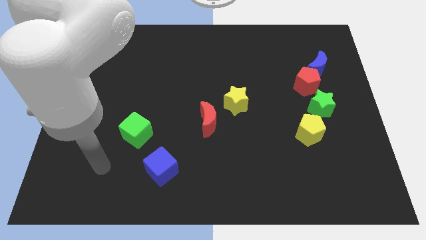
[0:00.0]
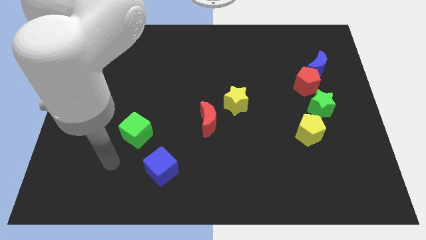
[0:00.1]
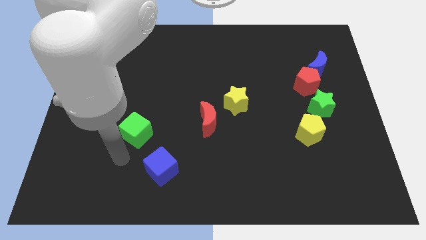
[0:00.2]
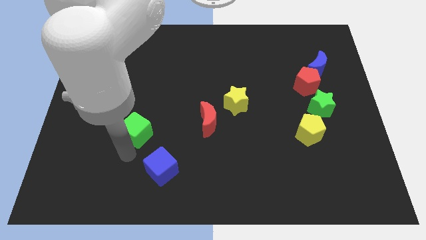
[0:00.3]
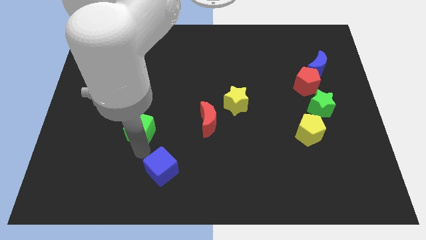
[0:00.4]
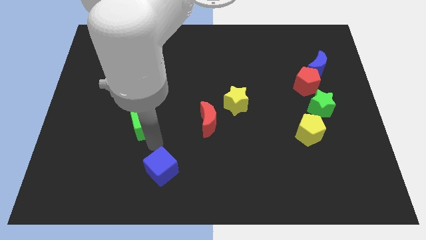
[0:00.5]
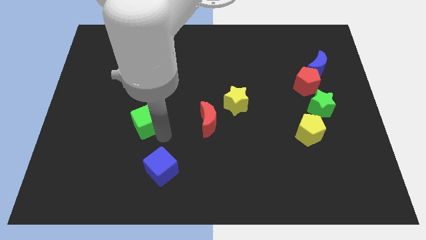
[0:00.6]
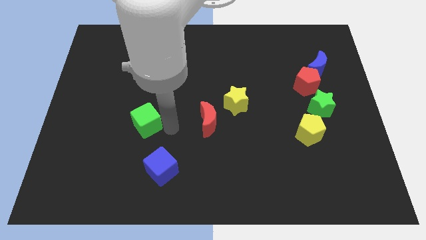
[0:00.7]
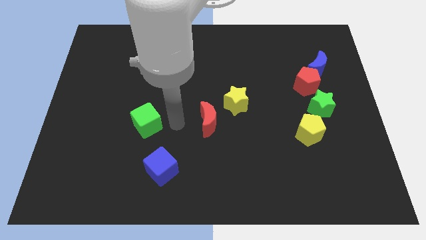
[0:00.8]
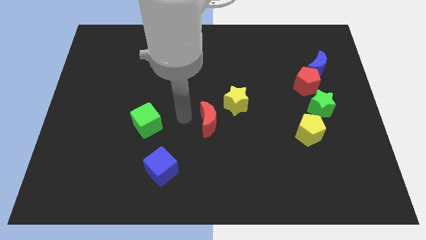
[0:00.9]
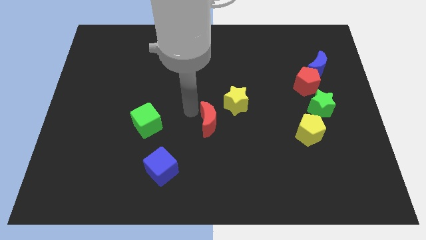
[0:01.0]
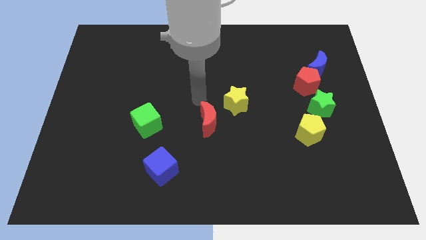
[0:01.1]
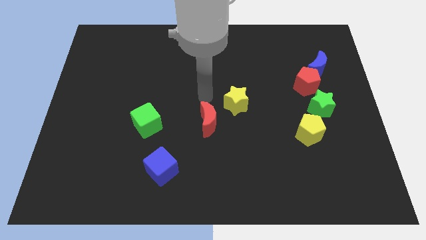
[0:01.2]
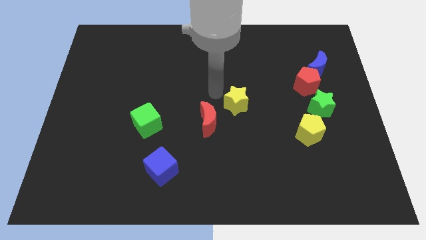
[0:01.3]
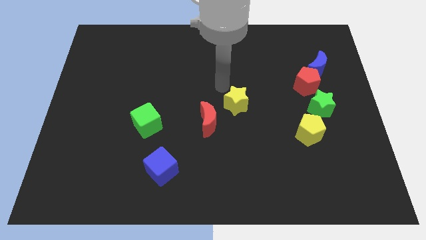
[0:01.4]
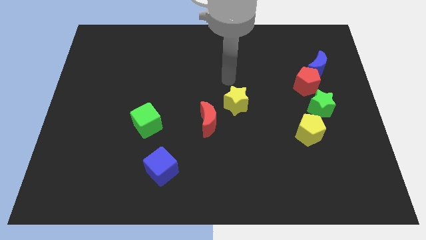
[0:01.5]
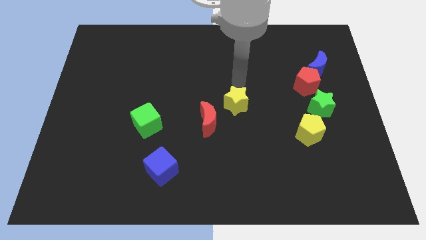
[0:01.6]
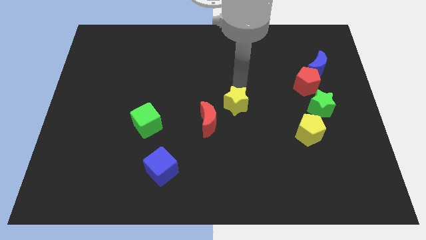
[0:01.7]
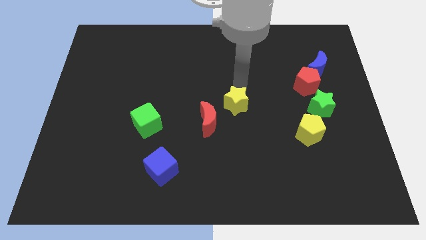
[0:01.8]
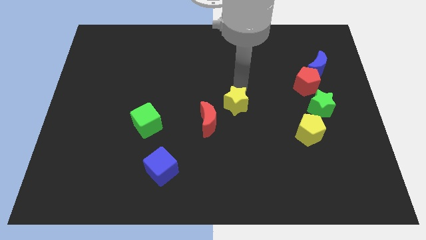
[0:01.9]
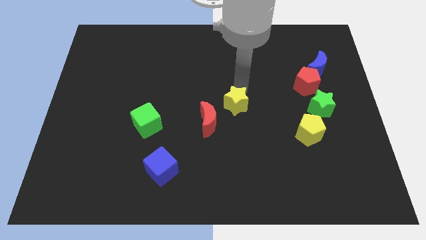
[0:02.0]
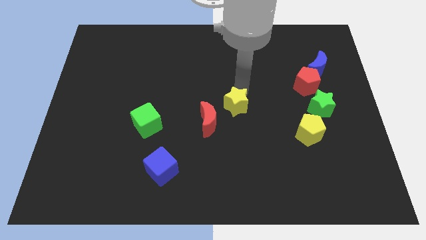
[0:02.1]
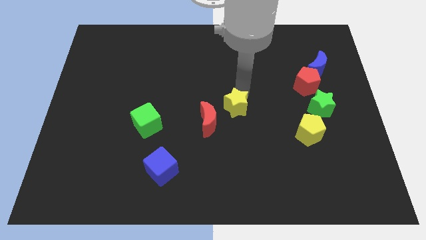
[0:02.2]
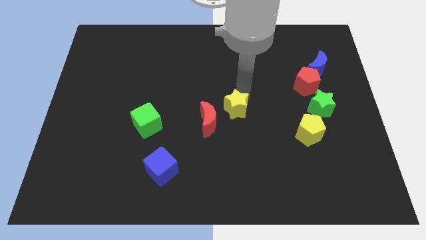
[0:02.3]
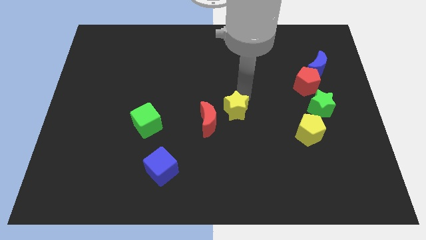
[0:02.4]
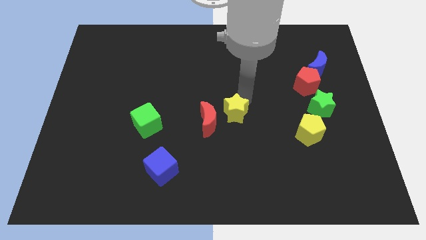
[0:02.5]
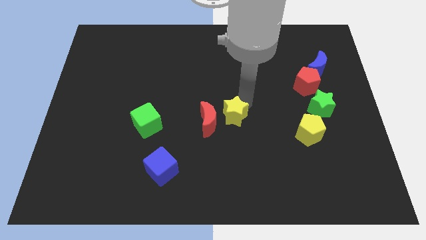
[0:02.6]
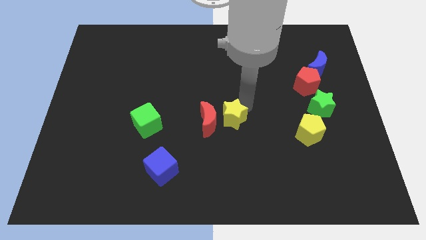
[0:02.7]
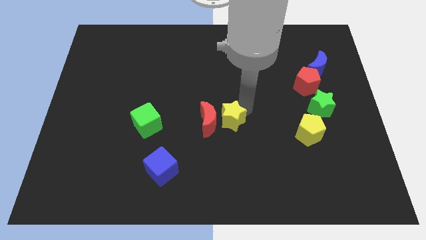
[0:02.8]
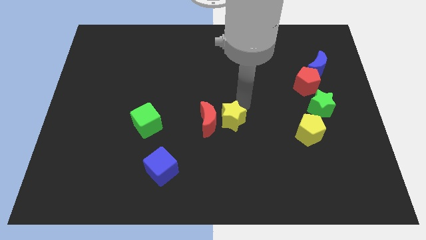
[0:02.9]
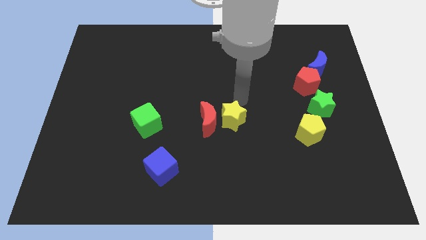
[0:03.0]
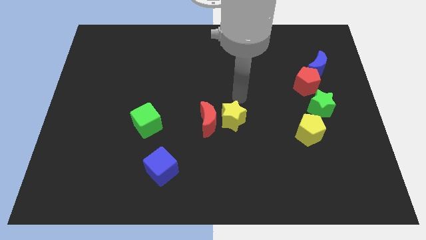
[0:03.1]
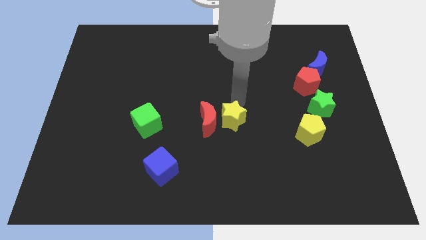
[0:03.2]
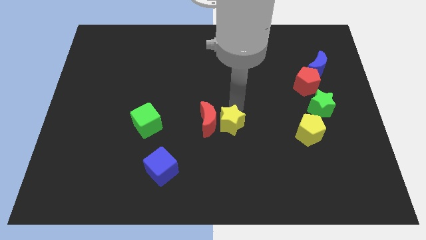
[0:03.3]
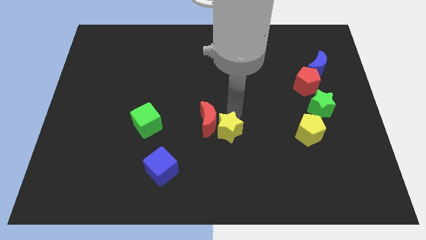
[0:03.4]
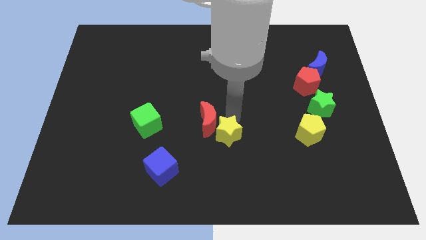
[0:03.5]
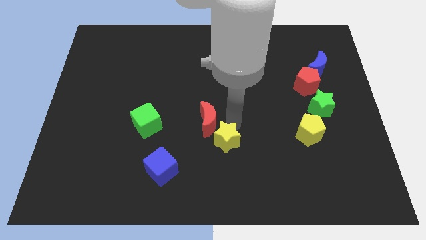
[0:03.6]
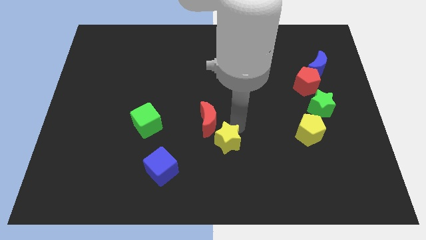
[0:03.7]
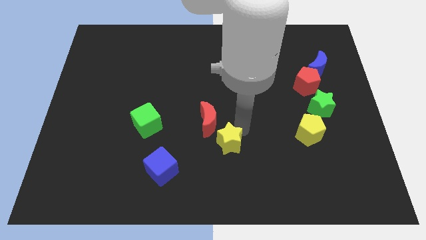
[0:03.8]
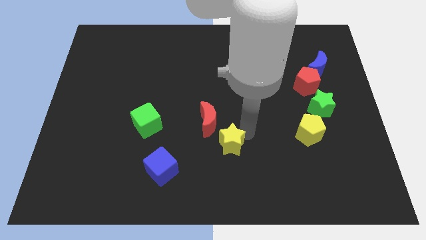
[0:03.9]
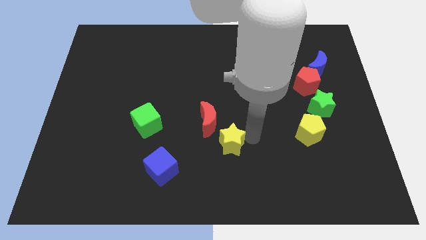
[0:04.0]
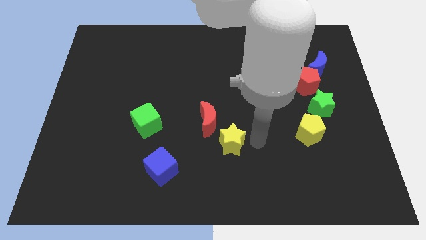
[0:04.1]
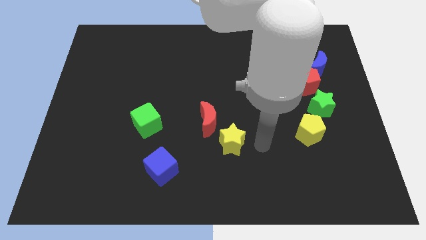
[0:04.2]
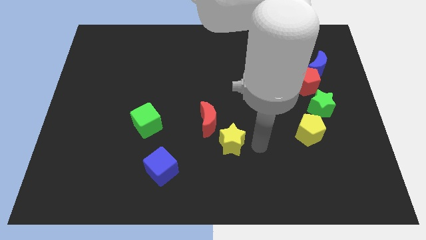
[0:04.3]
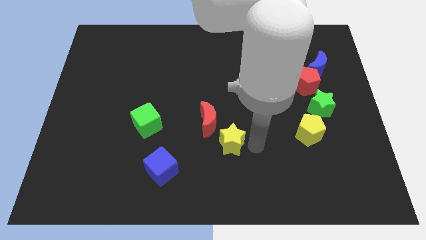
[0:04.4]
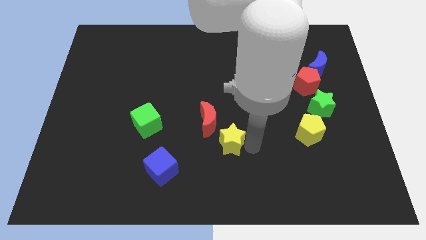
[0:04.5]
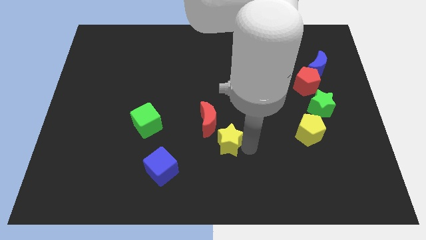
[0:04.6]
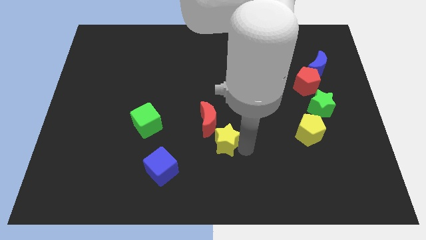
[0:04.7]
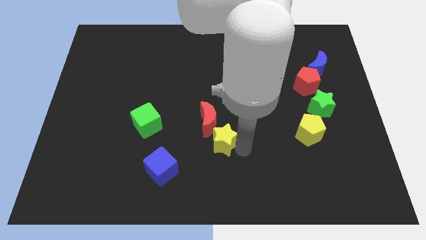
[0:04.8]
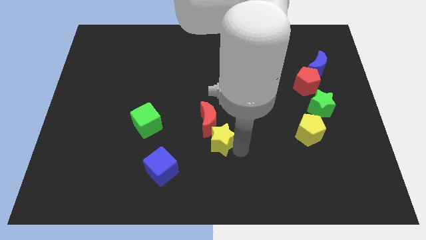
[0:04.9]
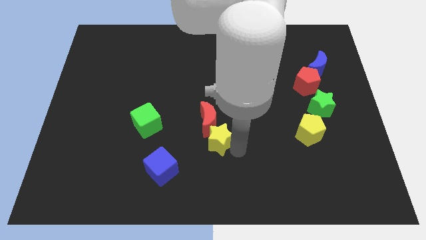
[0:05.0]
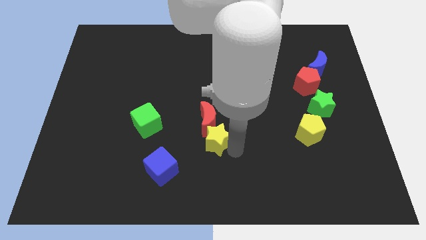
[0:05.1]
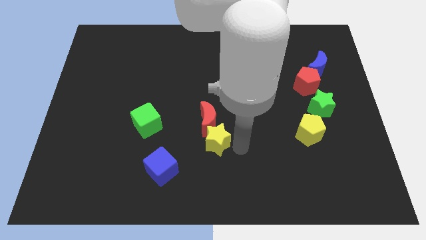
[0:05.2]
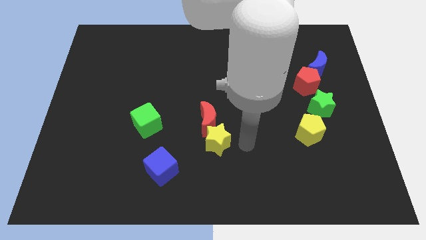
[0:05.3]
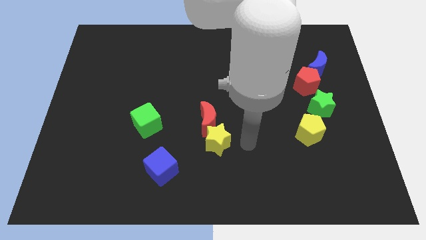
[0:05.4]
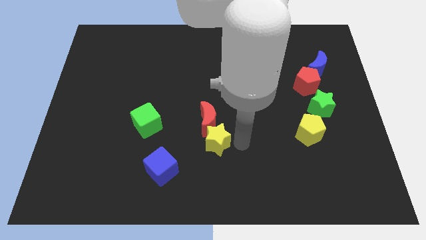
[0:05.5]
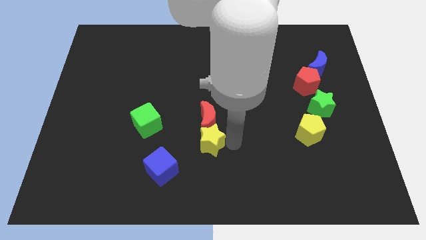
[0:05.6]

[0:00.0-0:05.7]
slide the yellow star diagonally down and to the left of the red moon

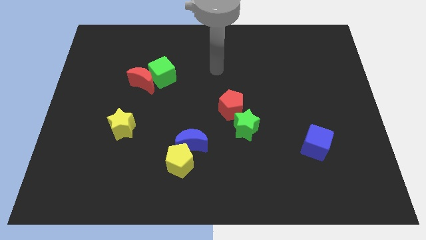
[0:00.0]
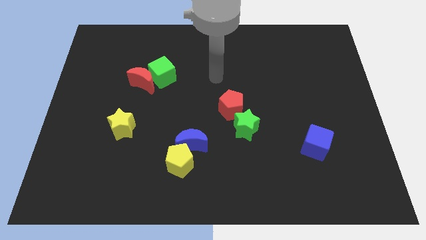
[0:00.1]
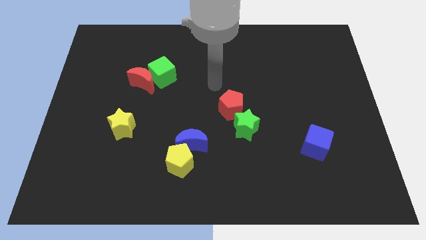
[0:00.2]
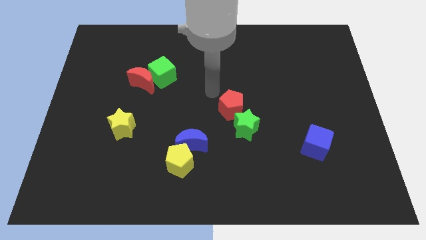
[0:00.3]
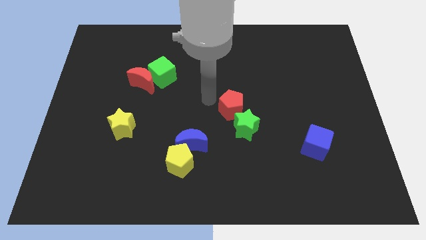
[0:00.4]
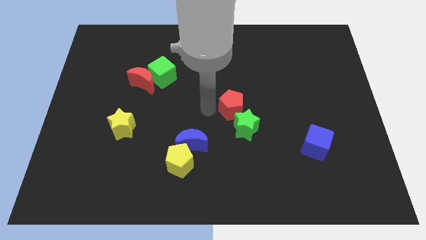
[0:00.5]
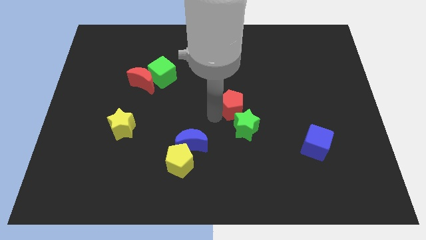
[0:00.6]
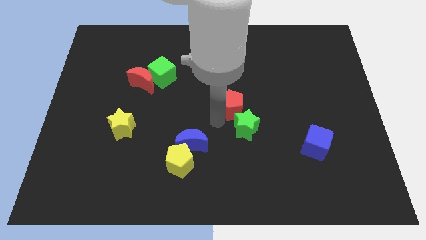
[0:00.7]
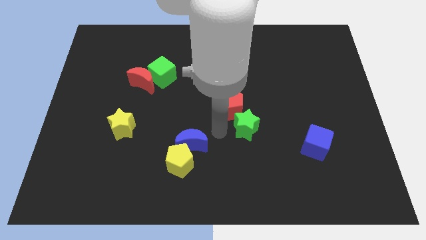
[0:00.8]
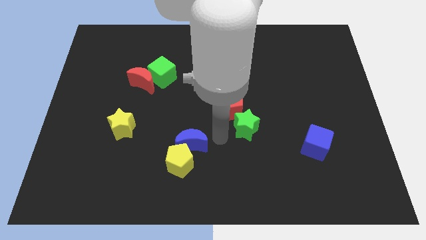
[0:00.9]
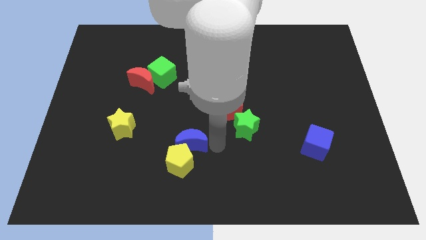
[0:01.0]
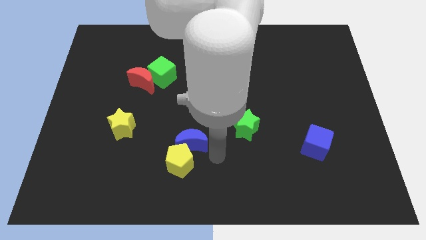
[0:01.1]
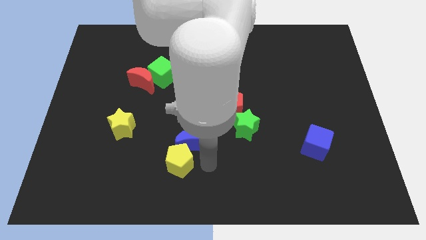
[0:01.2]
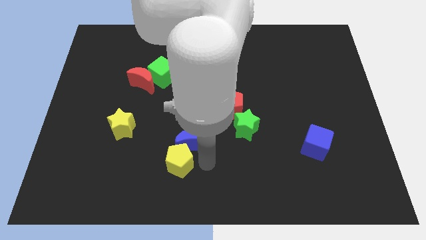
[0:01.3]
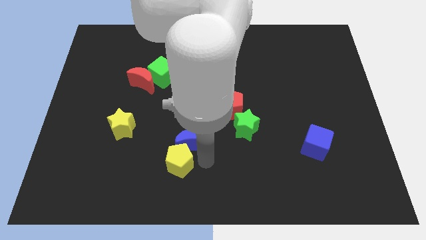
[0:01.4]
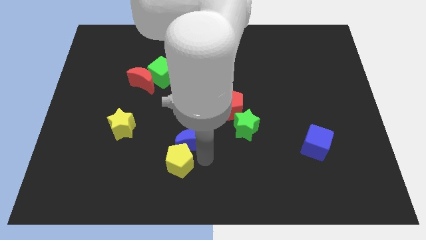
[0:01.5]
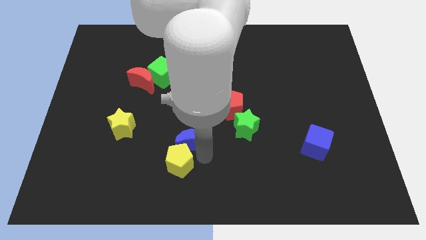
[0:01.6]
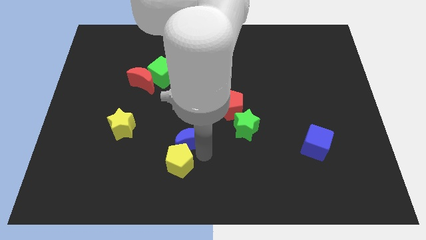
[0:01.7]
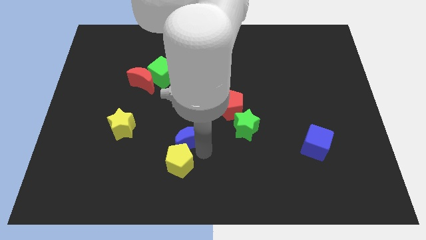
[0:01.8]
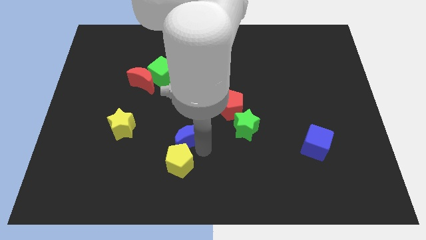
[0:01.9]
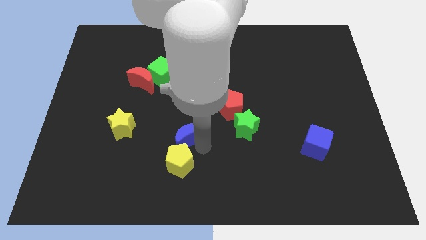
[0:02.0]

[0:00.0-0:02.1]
push the blue moon to the right side of the yellow star
